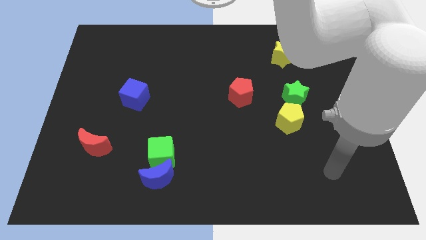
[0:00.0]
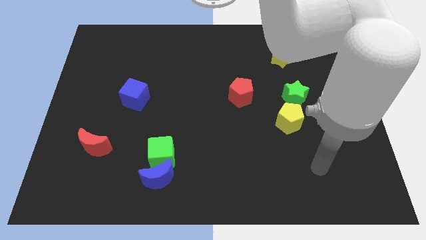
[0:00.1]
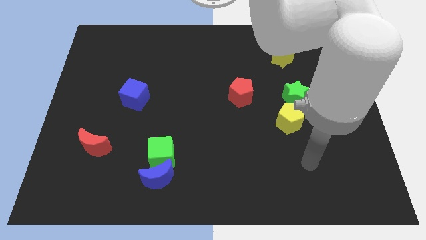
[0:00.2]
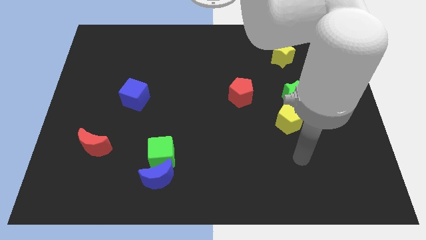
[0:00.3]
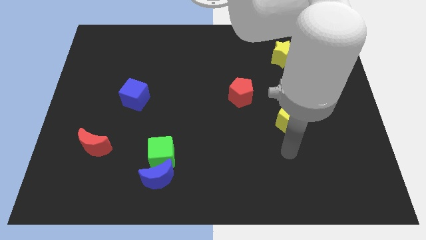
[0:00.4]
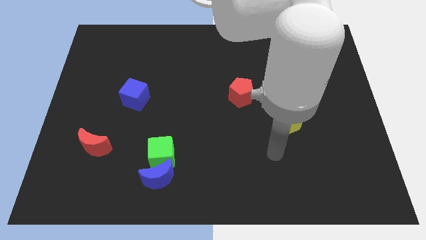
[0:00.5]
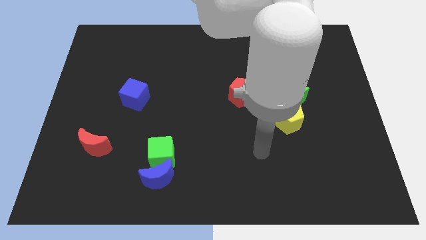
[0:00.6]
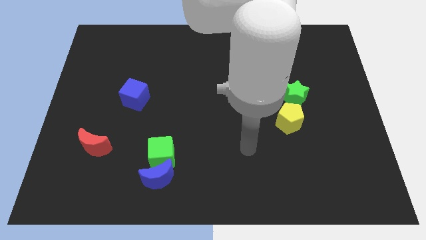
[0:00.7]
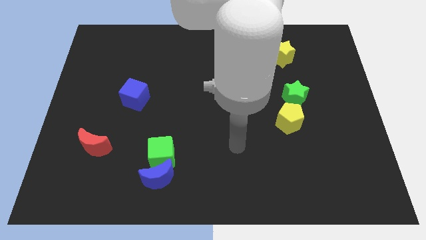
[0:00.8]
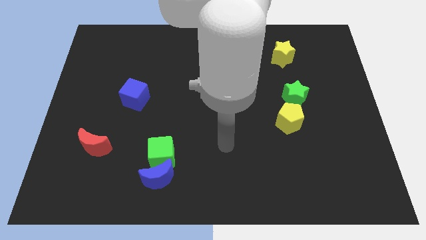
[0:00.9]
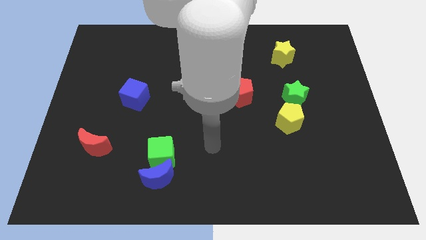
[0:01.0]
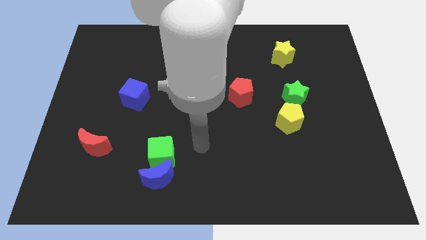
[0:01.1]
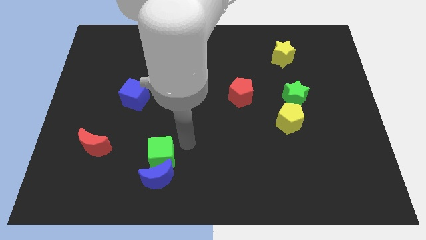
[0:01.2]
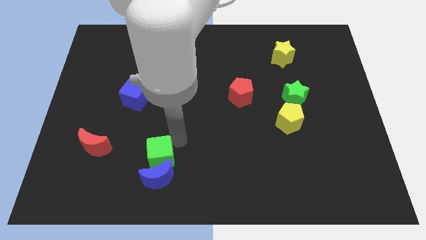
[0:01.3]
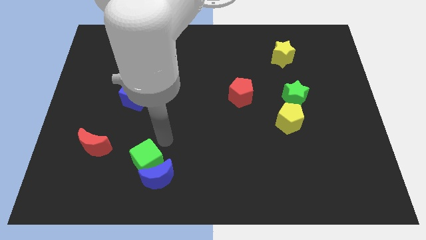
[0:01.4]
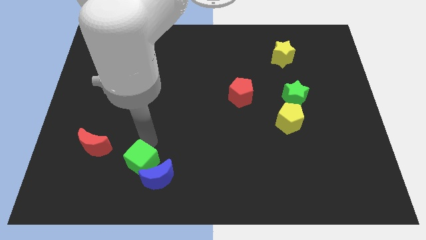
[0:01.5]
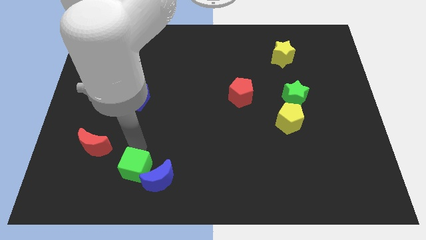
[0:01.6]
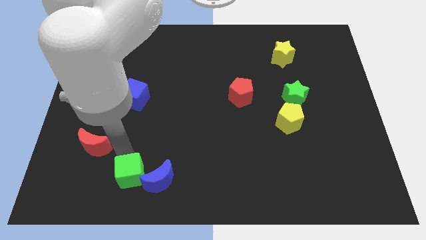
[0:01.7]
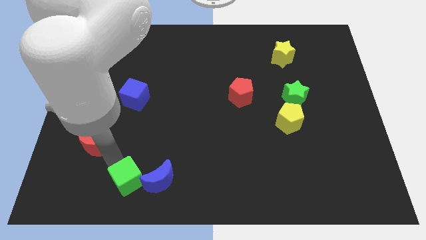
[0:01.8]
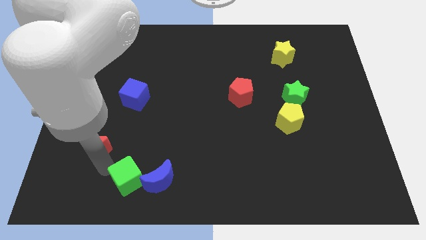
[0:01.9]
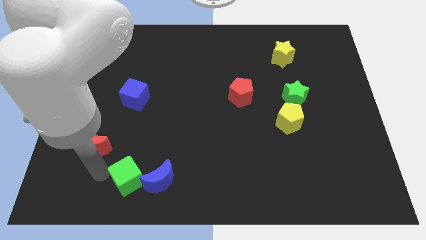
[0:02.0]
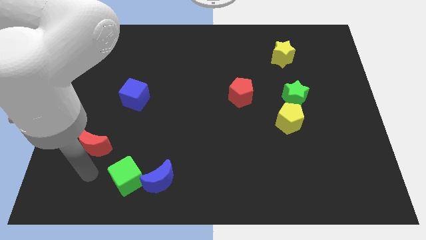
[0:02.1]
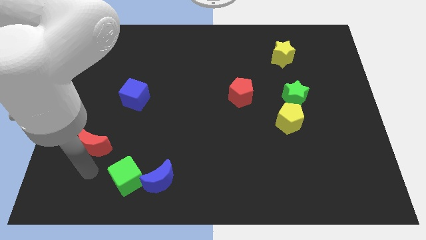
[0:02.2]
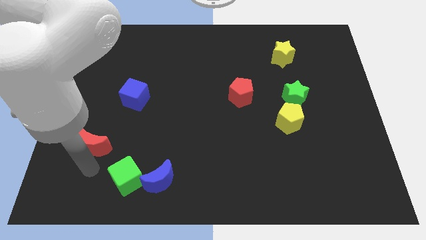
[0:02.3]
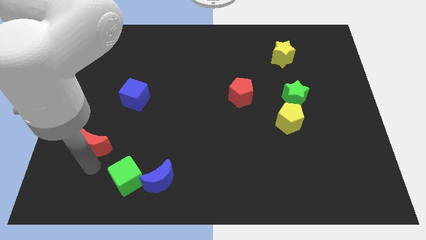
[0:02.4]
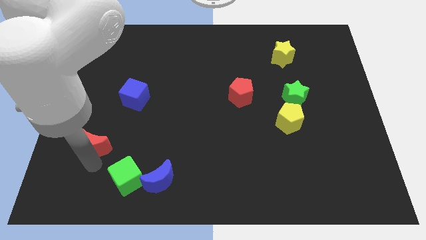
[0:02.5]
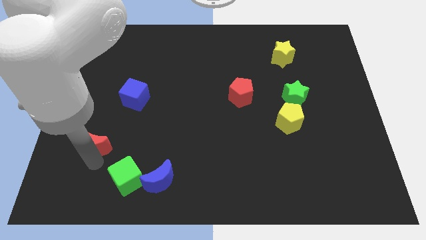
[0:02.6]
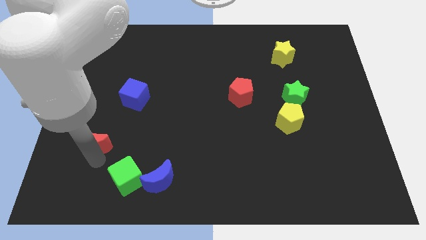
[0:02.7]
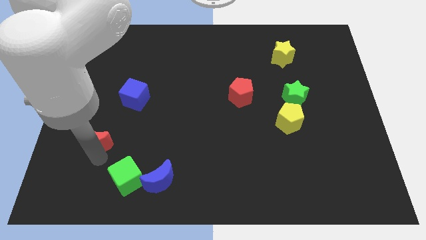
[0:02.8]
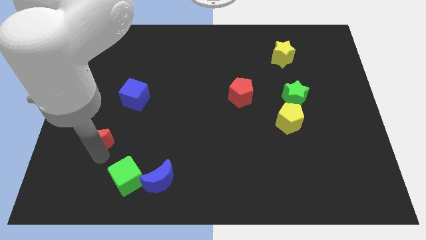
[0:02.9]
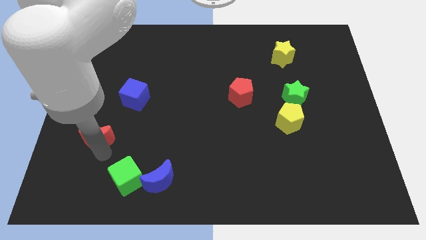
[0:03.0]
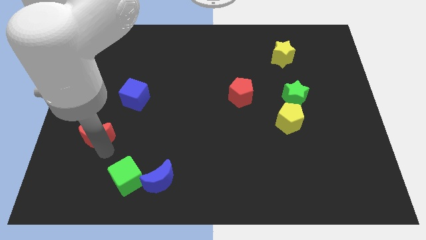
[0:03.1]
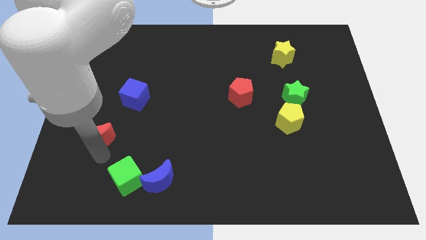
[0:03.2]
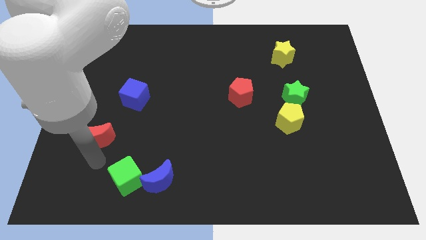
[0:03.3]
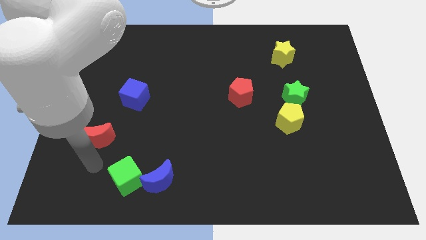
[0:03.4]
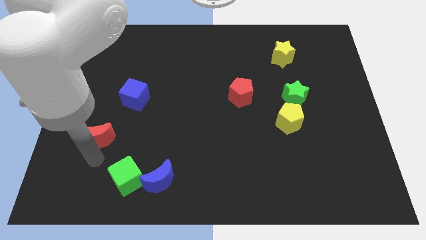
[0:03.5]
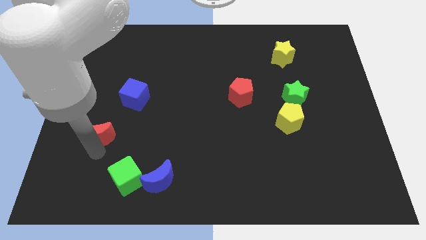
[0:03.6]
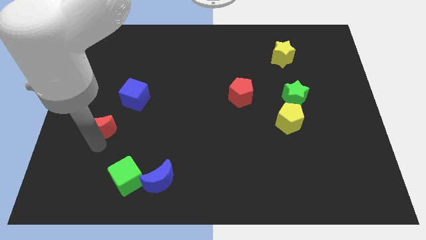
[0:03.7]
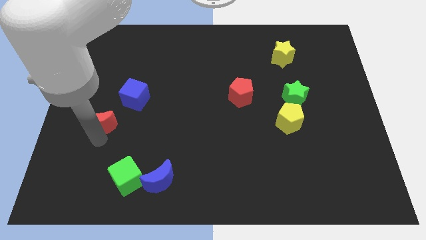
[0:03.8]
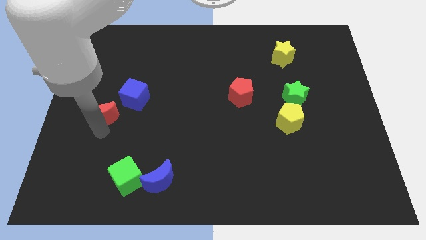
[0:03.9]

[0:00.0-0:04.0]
push the red moon somewhat up

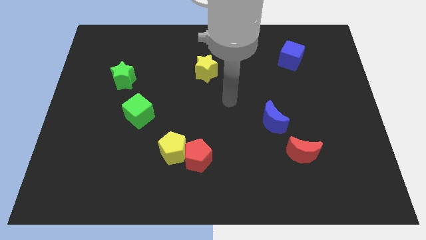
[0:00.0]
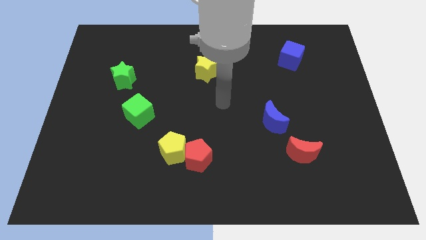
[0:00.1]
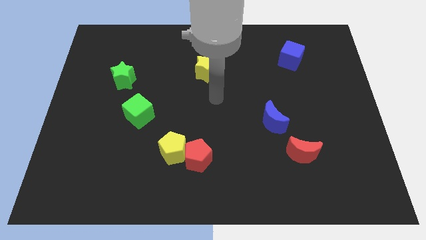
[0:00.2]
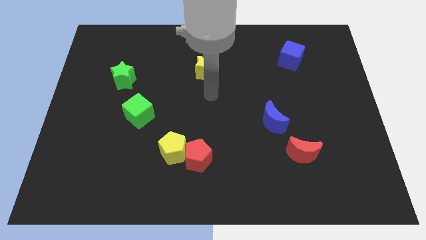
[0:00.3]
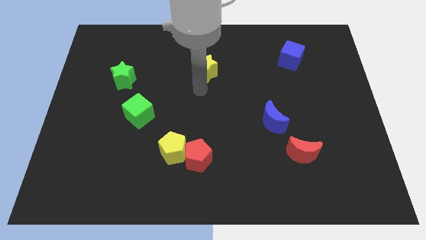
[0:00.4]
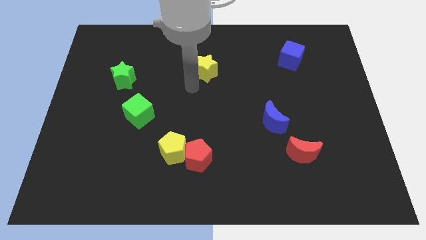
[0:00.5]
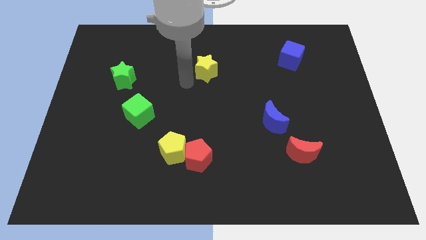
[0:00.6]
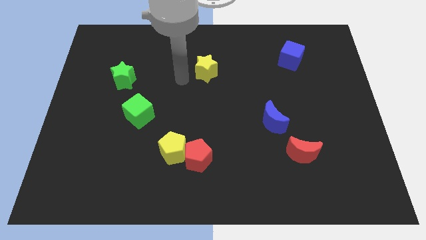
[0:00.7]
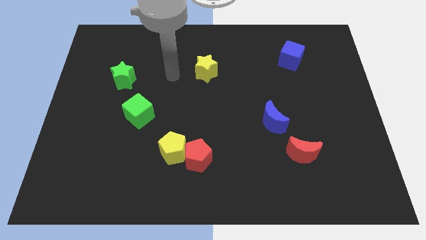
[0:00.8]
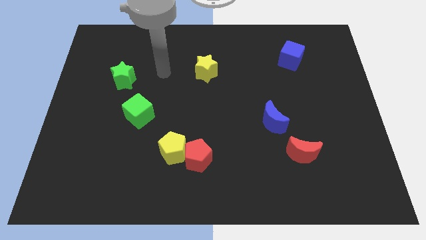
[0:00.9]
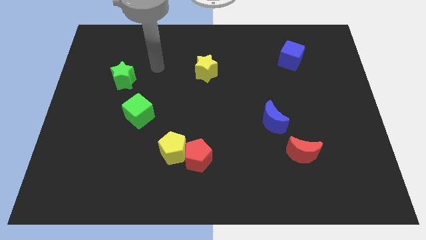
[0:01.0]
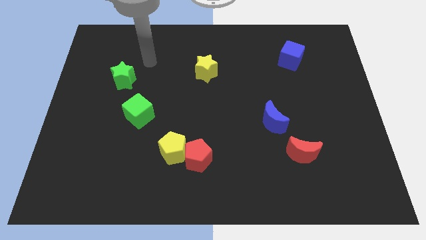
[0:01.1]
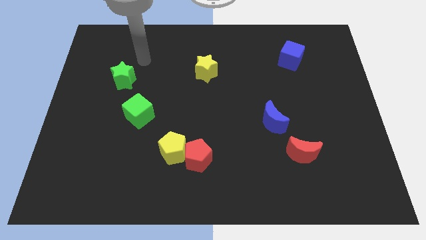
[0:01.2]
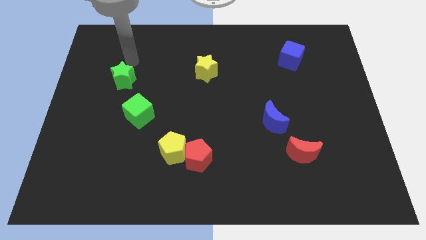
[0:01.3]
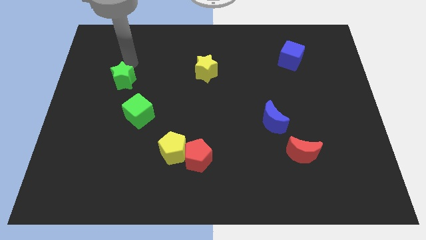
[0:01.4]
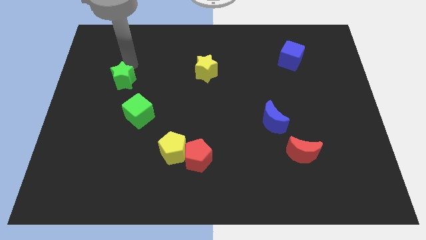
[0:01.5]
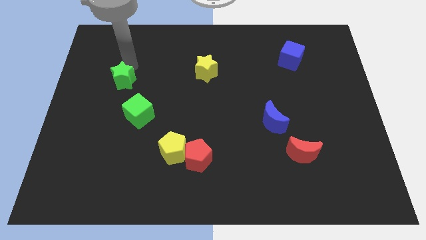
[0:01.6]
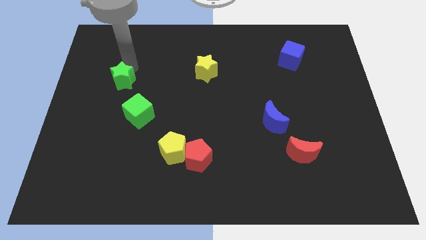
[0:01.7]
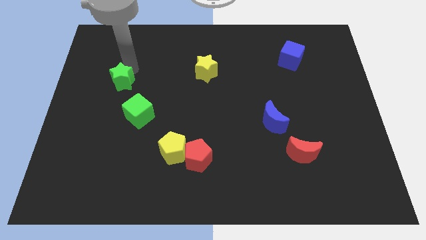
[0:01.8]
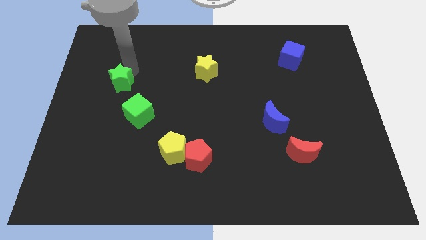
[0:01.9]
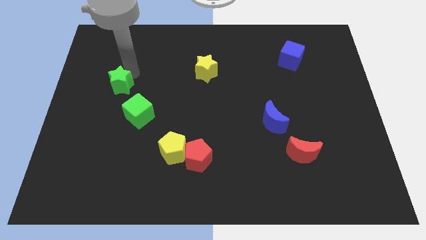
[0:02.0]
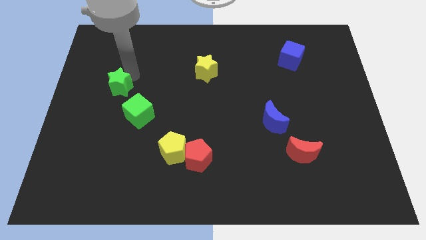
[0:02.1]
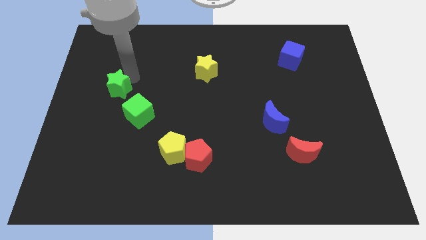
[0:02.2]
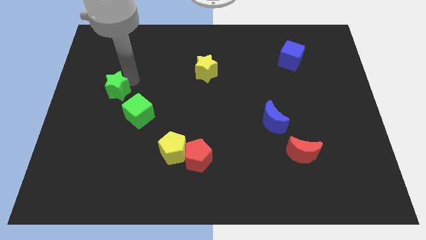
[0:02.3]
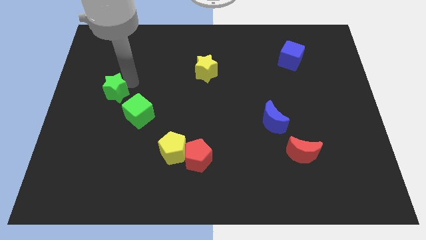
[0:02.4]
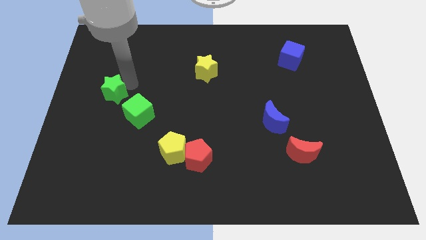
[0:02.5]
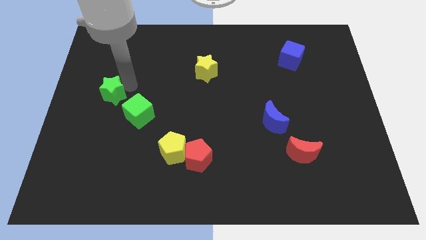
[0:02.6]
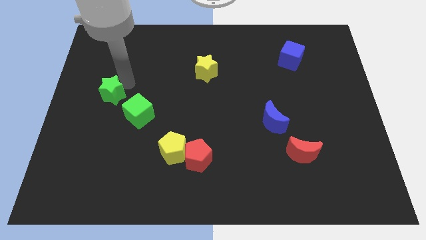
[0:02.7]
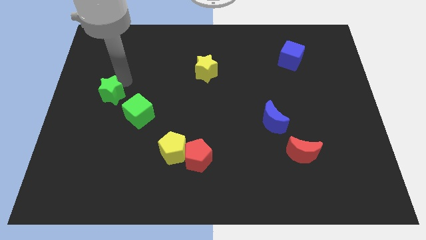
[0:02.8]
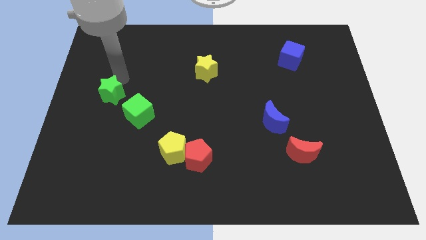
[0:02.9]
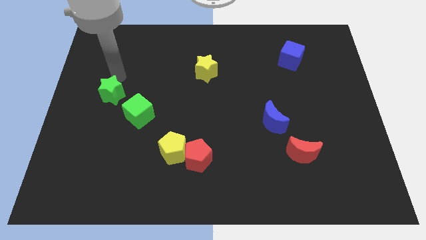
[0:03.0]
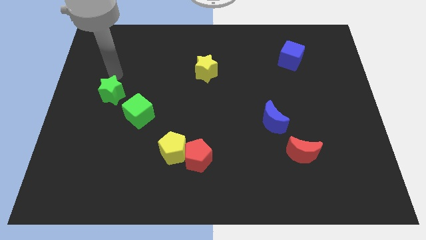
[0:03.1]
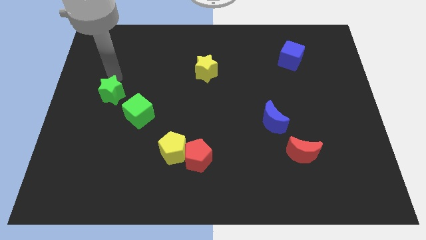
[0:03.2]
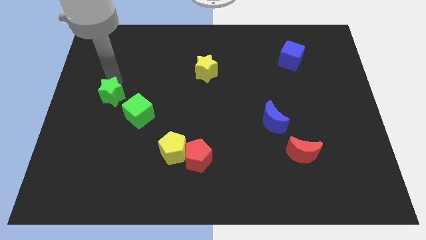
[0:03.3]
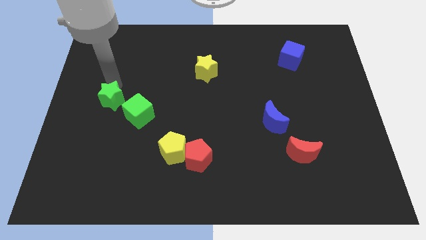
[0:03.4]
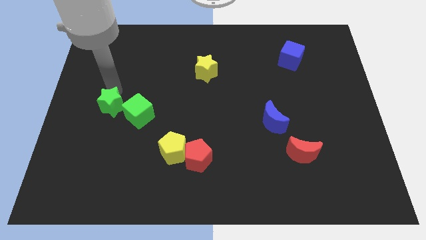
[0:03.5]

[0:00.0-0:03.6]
move the green star downwards a bit

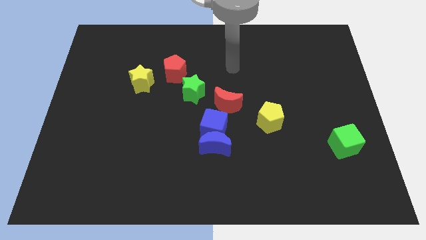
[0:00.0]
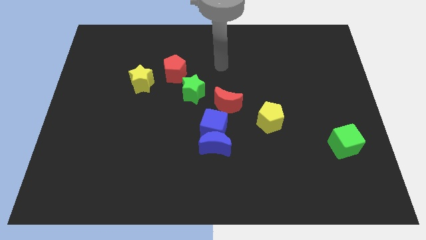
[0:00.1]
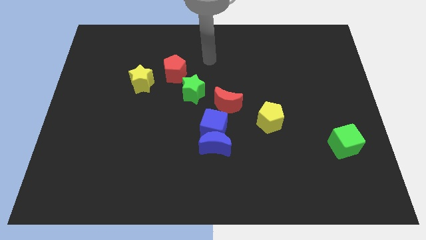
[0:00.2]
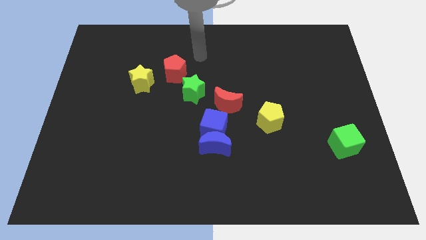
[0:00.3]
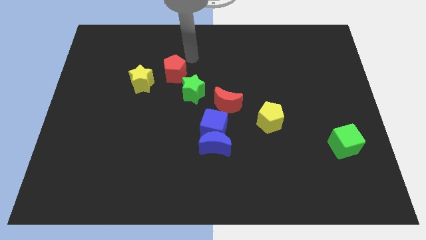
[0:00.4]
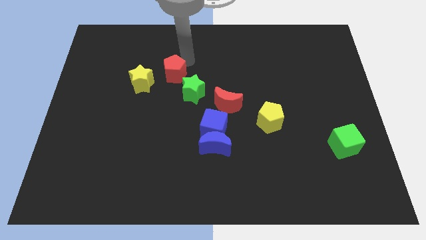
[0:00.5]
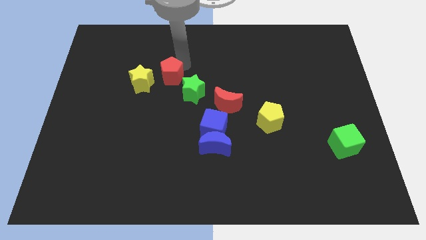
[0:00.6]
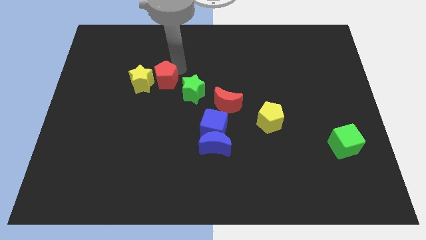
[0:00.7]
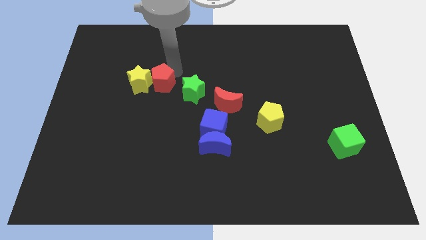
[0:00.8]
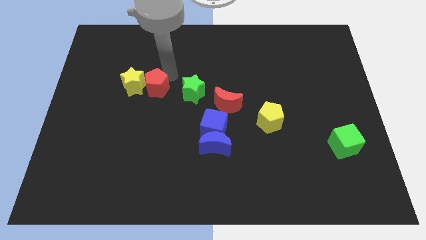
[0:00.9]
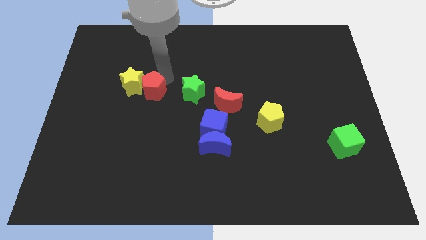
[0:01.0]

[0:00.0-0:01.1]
slide the red pentagon somewhat down and then left
